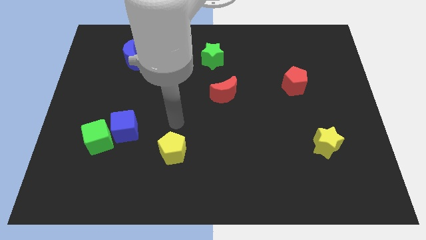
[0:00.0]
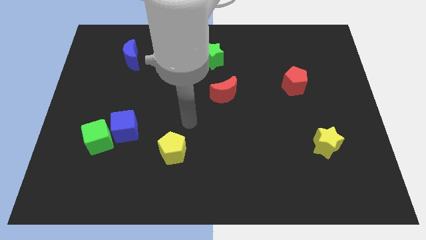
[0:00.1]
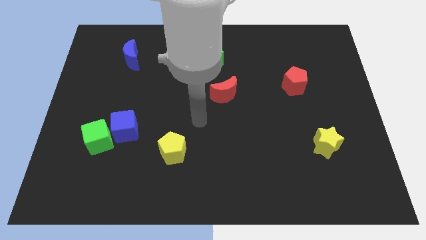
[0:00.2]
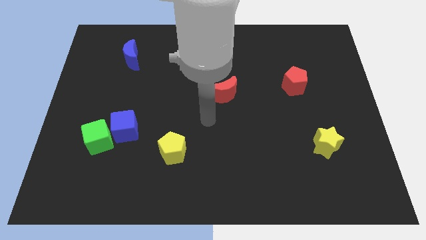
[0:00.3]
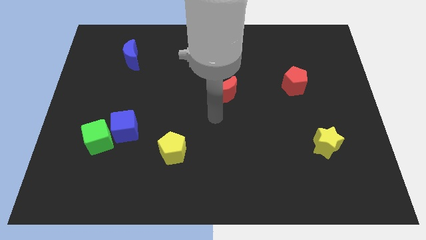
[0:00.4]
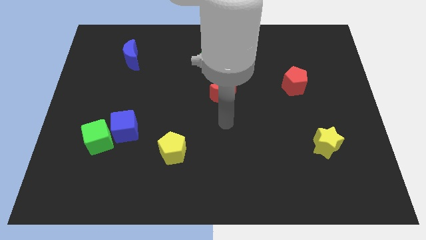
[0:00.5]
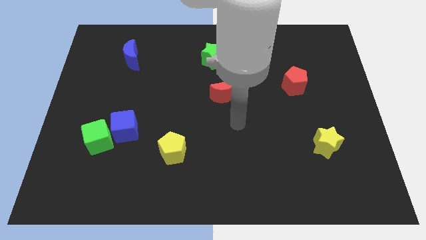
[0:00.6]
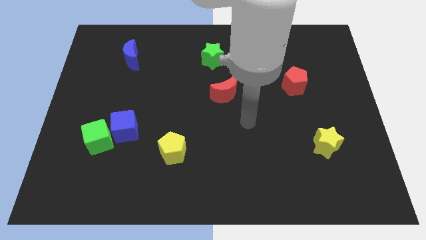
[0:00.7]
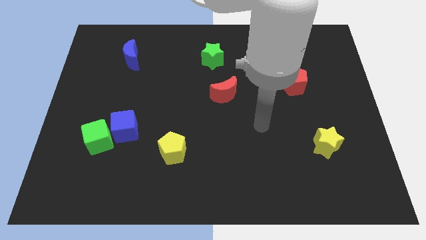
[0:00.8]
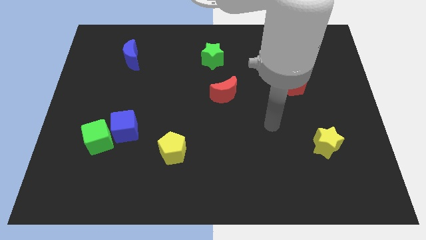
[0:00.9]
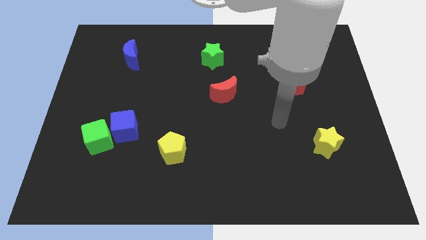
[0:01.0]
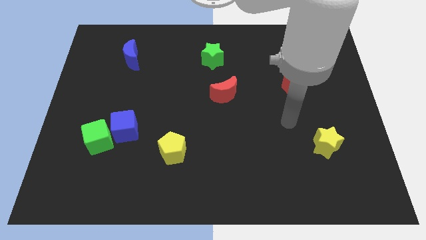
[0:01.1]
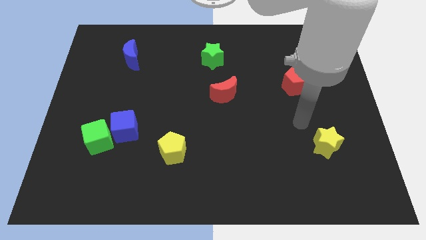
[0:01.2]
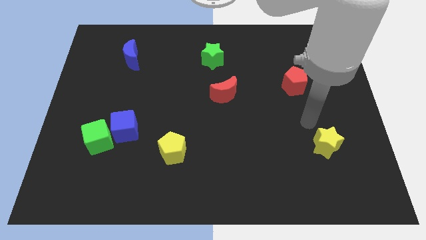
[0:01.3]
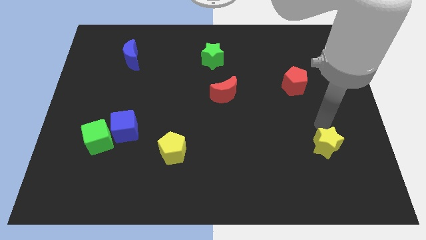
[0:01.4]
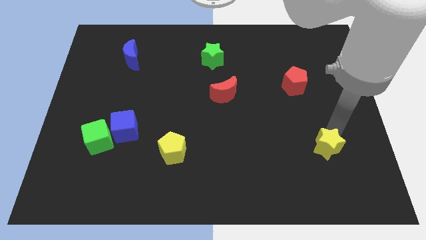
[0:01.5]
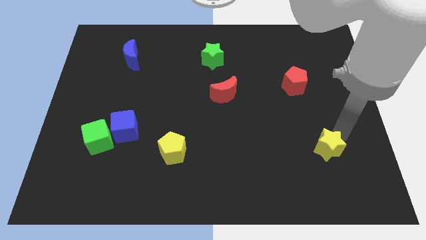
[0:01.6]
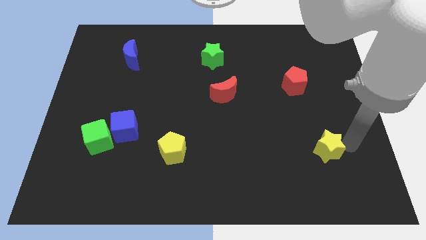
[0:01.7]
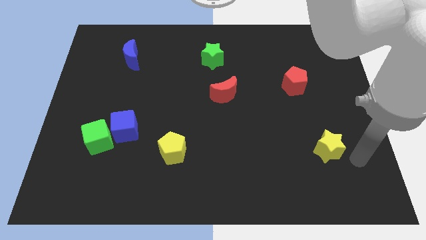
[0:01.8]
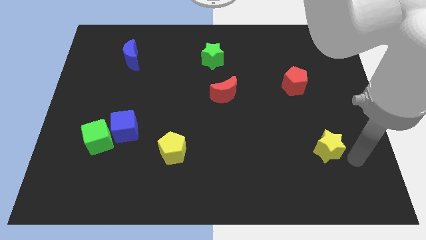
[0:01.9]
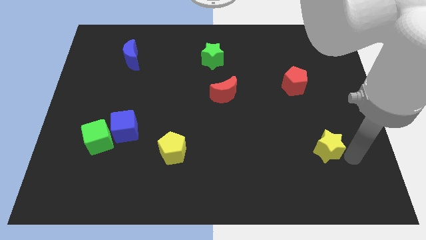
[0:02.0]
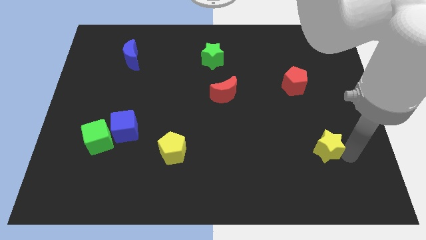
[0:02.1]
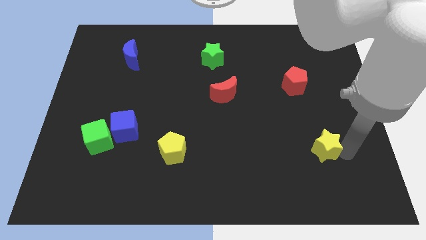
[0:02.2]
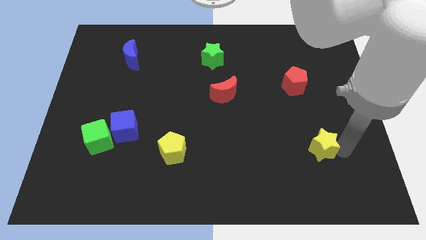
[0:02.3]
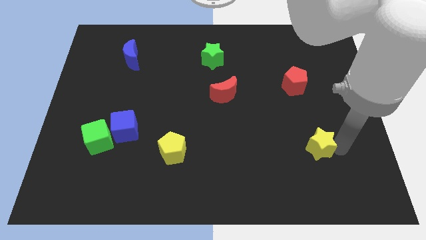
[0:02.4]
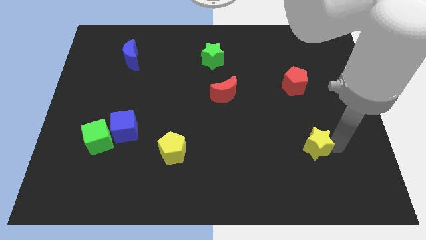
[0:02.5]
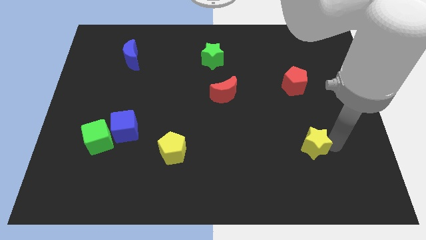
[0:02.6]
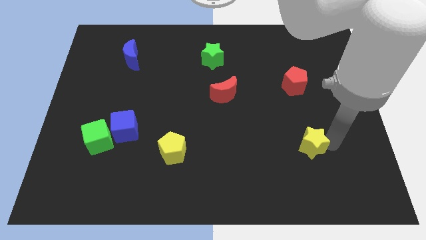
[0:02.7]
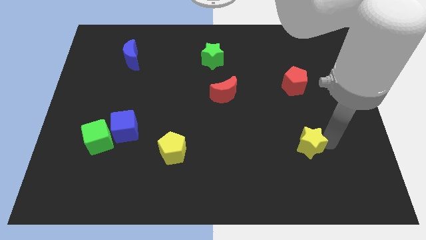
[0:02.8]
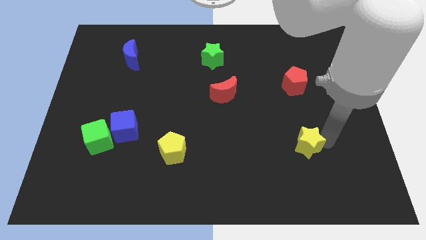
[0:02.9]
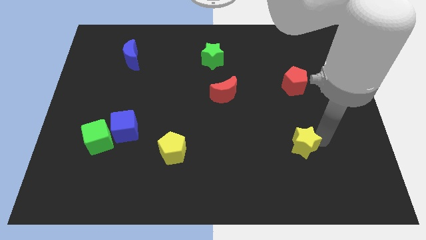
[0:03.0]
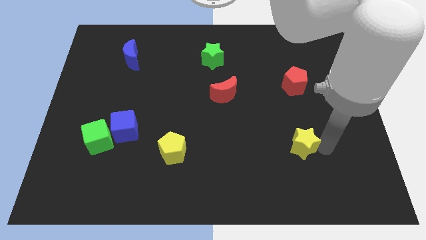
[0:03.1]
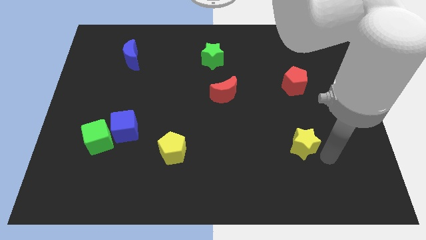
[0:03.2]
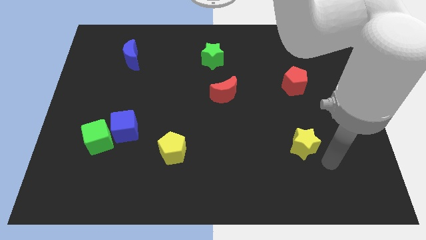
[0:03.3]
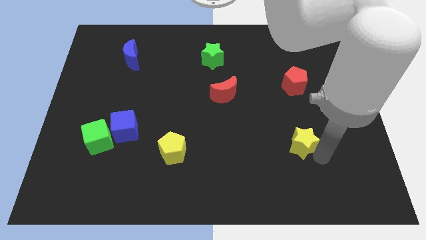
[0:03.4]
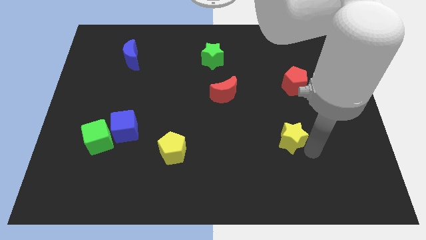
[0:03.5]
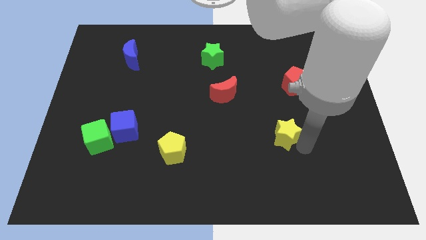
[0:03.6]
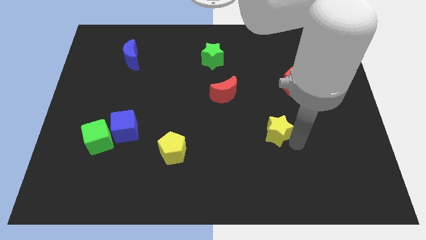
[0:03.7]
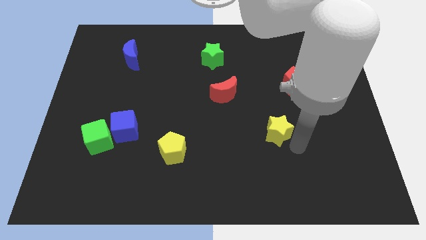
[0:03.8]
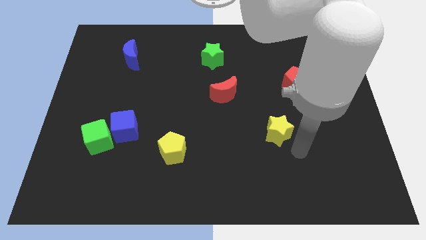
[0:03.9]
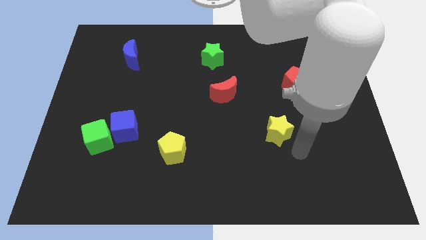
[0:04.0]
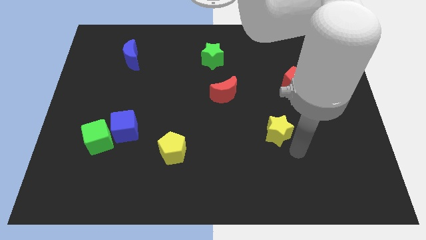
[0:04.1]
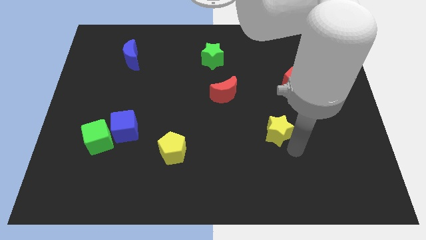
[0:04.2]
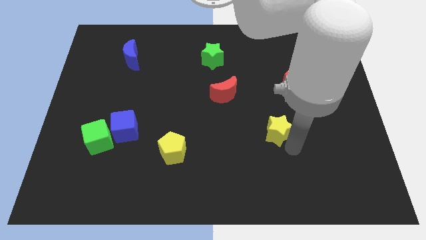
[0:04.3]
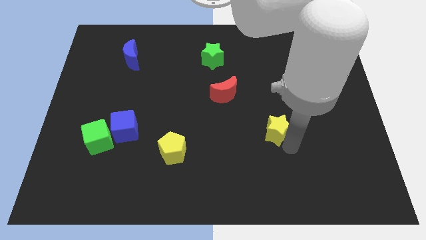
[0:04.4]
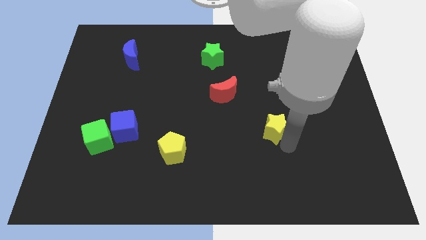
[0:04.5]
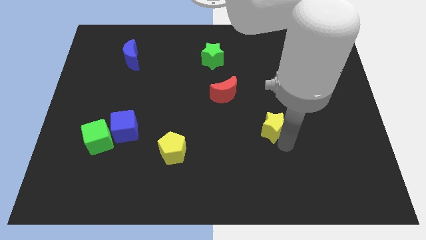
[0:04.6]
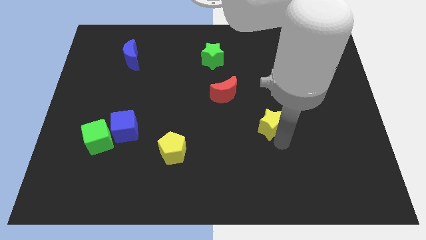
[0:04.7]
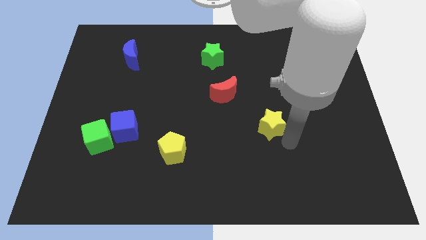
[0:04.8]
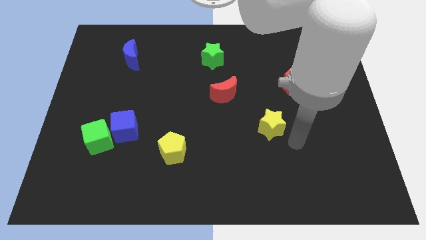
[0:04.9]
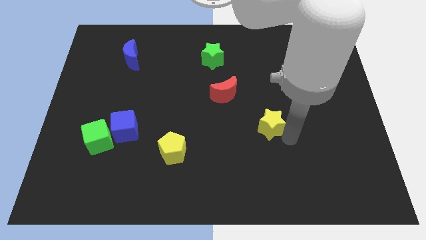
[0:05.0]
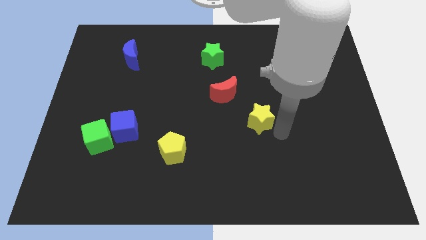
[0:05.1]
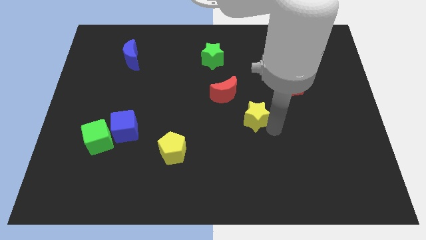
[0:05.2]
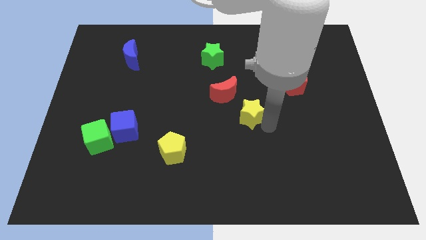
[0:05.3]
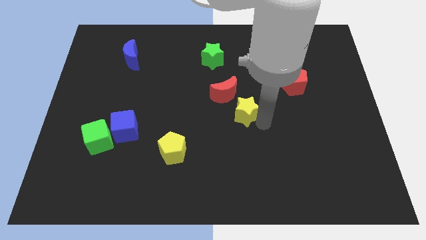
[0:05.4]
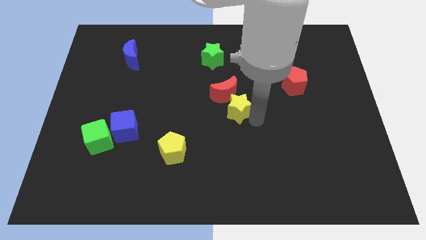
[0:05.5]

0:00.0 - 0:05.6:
move the yellow star towards the red moon
